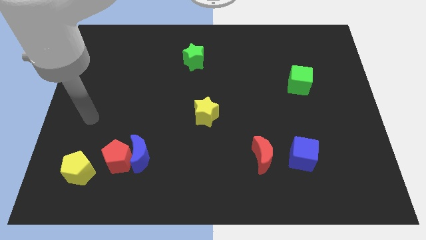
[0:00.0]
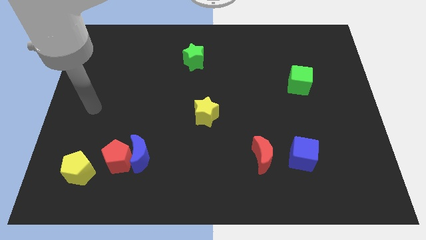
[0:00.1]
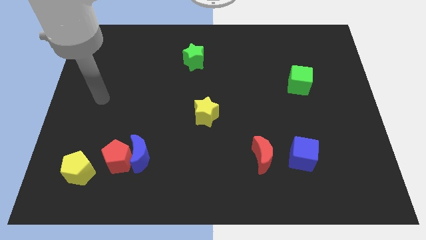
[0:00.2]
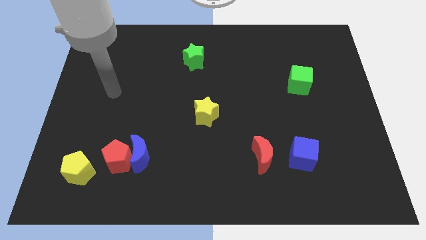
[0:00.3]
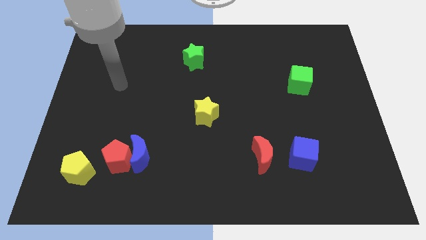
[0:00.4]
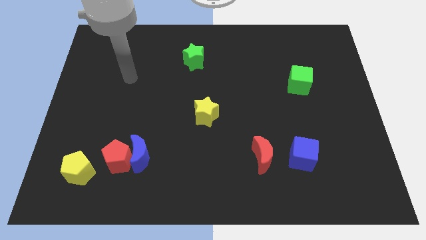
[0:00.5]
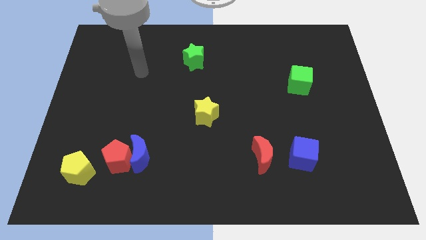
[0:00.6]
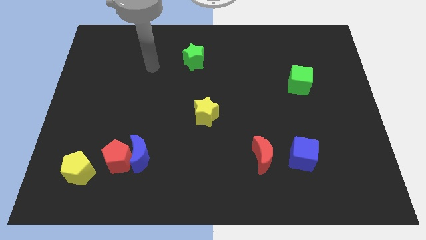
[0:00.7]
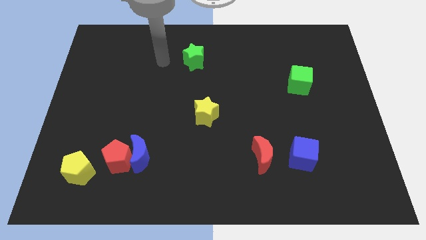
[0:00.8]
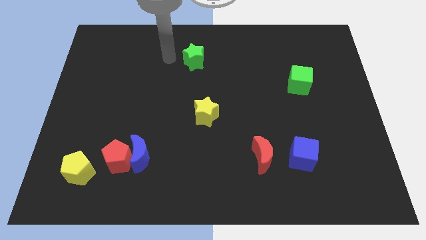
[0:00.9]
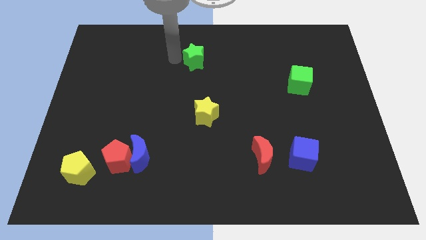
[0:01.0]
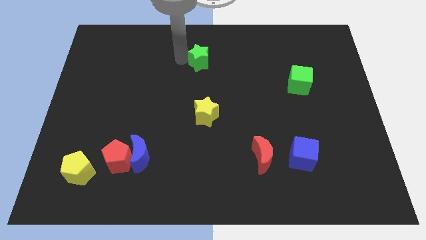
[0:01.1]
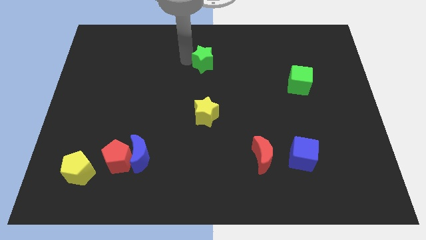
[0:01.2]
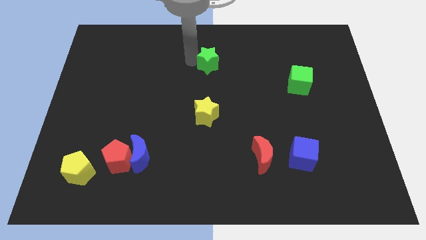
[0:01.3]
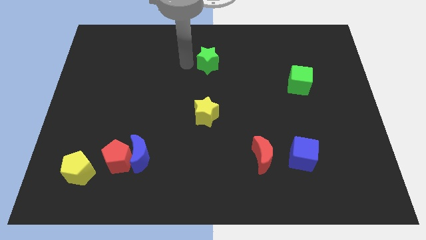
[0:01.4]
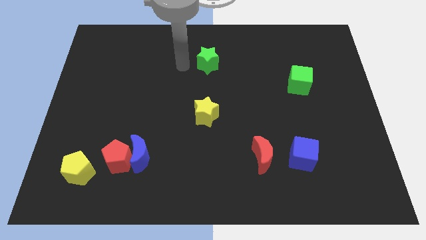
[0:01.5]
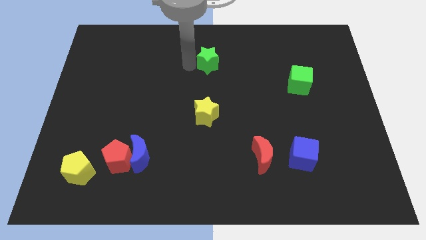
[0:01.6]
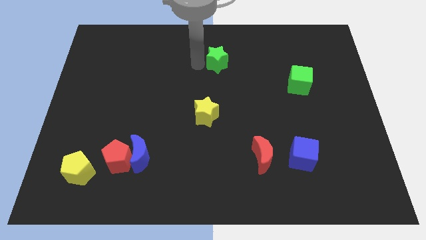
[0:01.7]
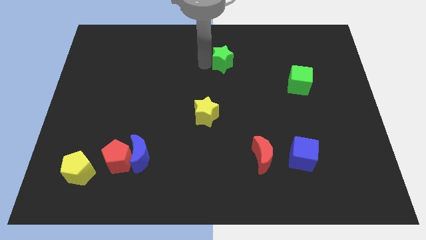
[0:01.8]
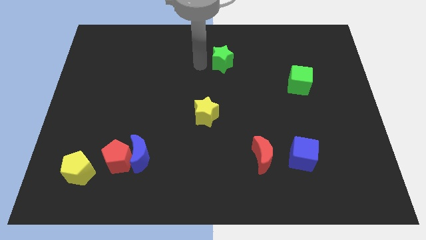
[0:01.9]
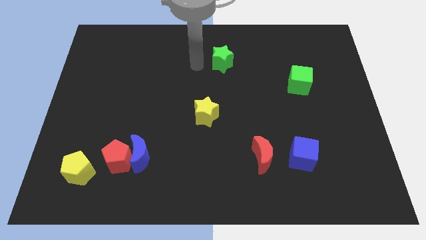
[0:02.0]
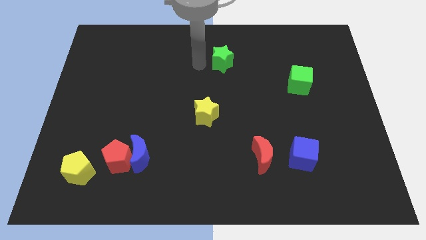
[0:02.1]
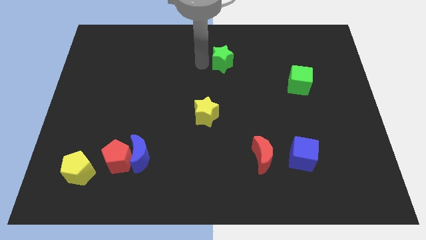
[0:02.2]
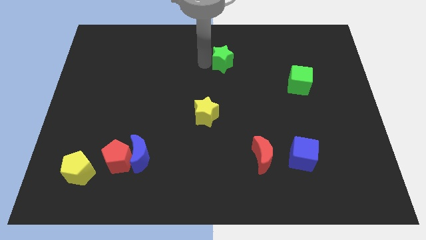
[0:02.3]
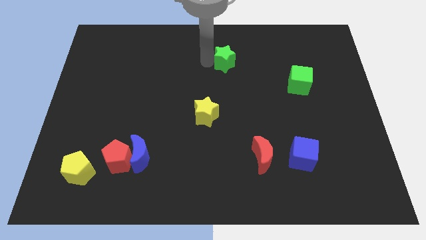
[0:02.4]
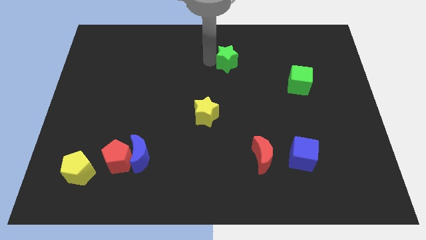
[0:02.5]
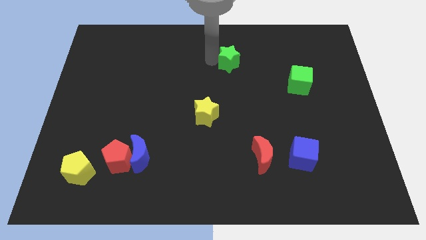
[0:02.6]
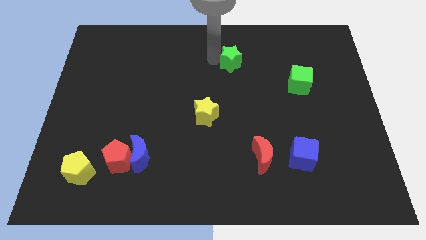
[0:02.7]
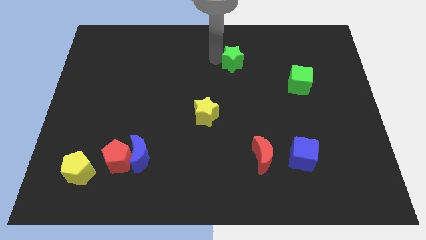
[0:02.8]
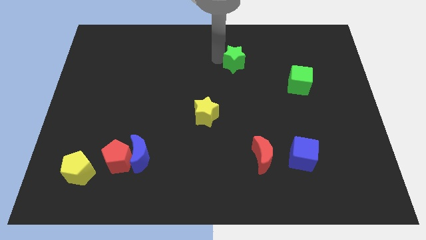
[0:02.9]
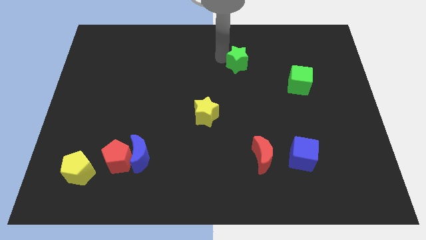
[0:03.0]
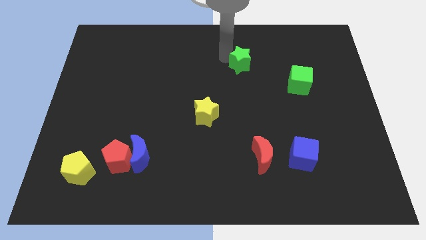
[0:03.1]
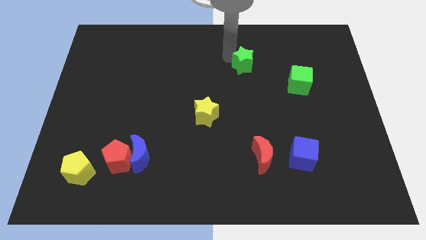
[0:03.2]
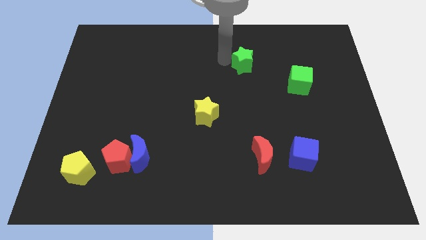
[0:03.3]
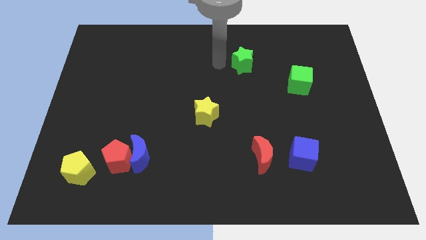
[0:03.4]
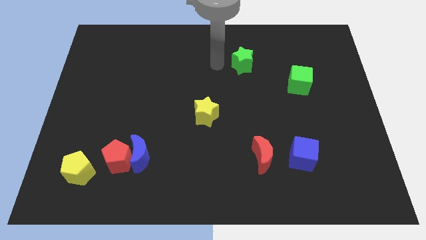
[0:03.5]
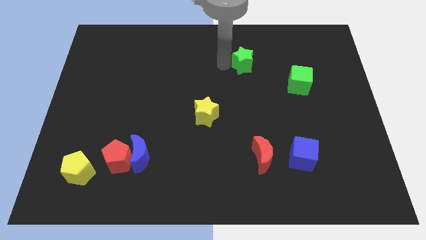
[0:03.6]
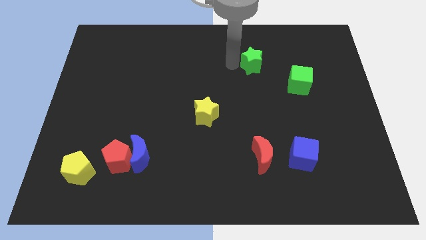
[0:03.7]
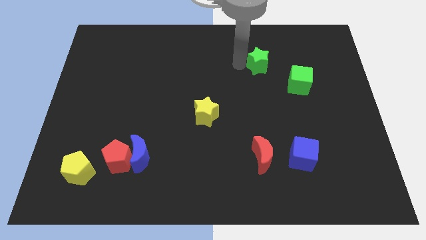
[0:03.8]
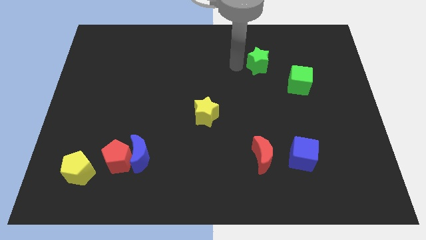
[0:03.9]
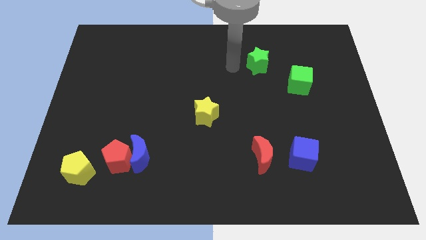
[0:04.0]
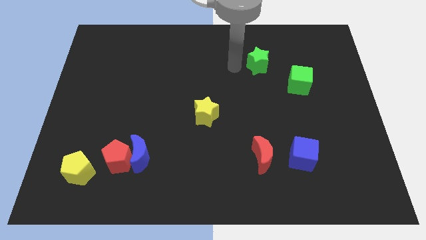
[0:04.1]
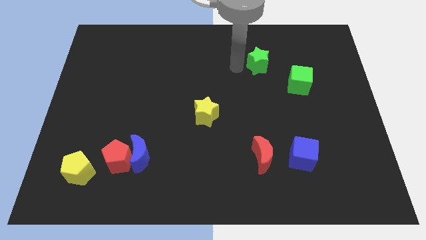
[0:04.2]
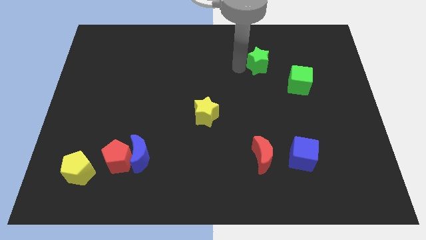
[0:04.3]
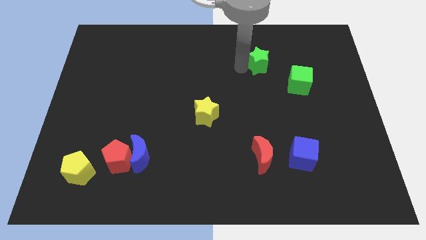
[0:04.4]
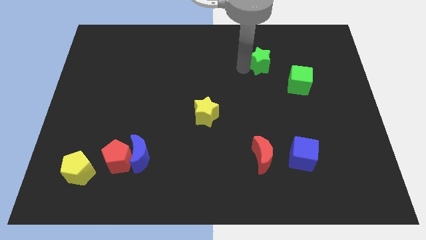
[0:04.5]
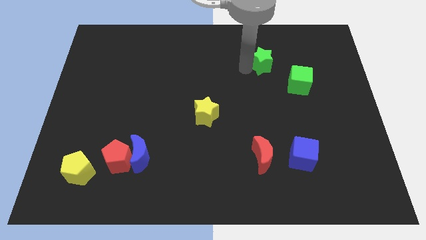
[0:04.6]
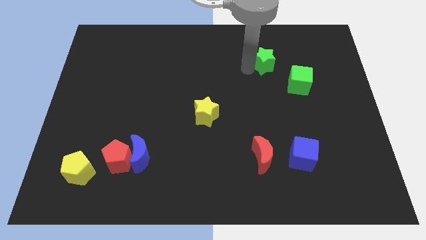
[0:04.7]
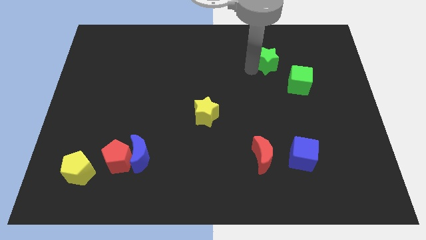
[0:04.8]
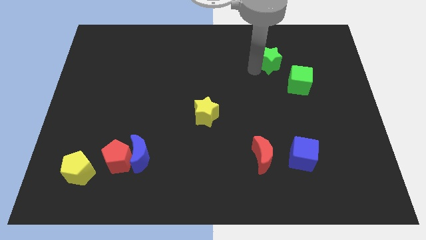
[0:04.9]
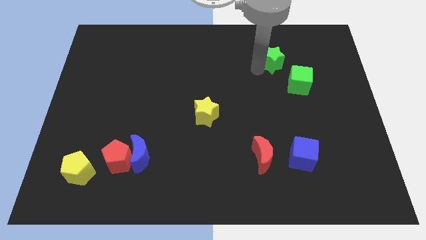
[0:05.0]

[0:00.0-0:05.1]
push the green star right

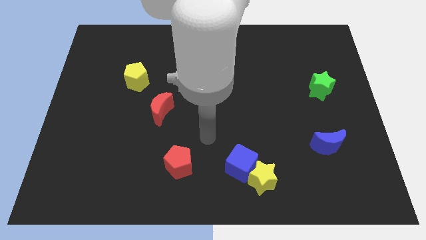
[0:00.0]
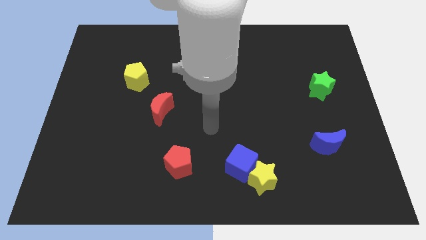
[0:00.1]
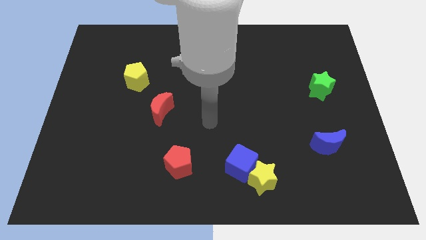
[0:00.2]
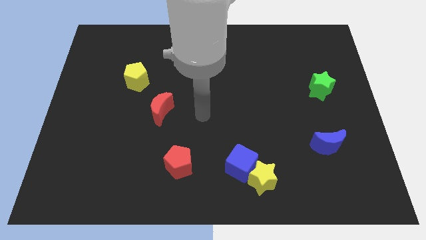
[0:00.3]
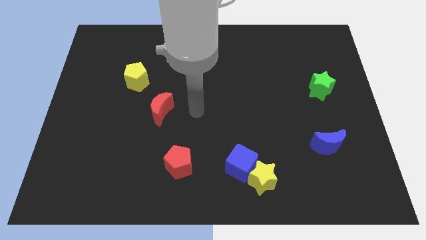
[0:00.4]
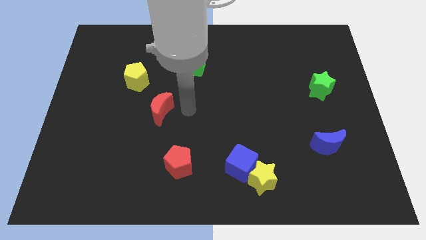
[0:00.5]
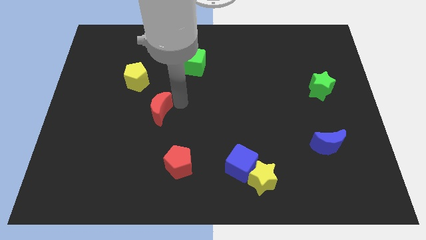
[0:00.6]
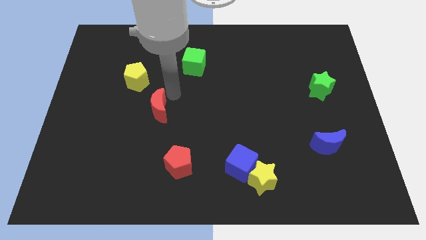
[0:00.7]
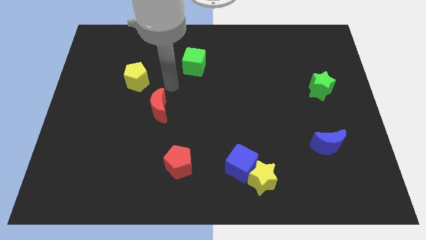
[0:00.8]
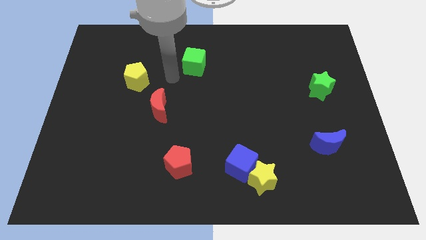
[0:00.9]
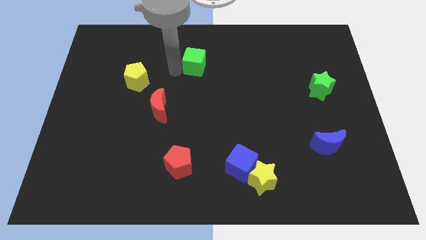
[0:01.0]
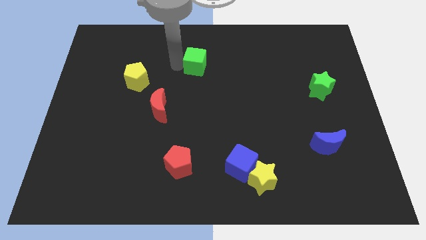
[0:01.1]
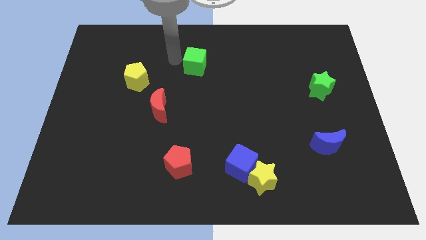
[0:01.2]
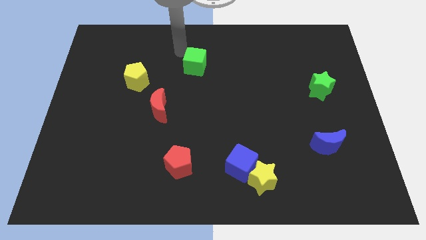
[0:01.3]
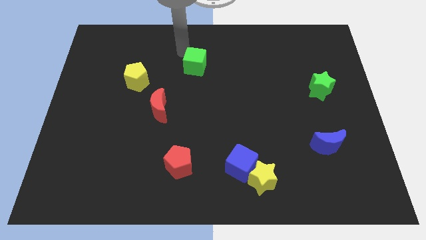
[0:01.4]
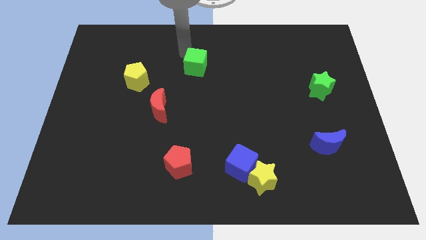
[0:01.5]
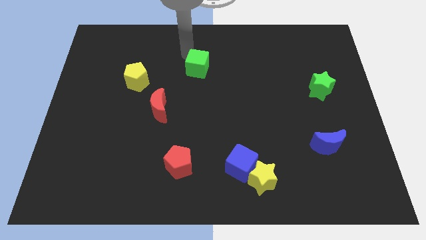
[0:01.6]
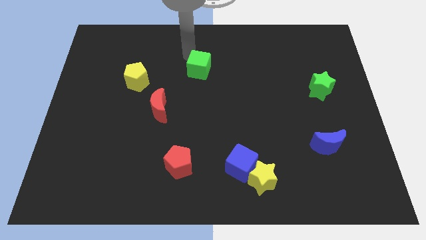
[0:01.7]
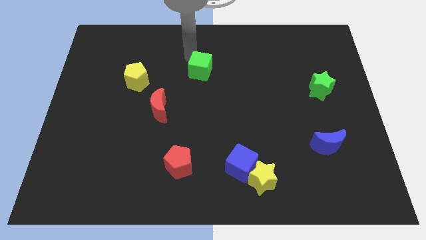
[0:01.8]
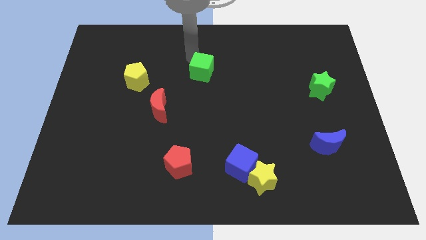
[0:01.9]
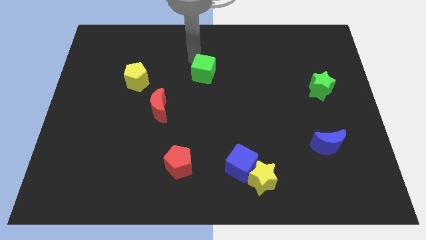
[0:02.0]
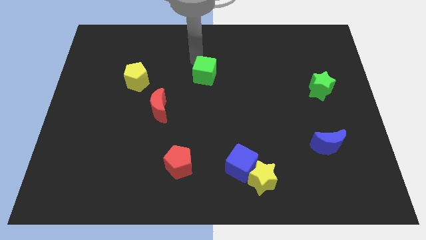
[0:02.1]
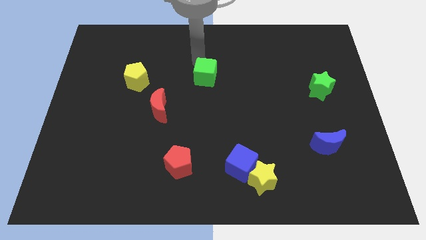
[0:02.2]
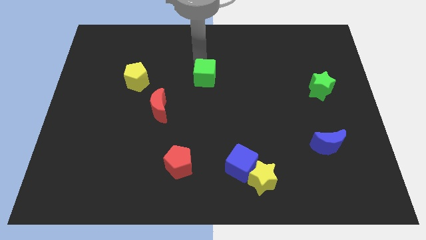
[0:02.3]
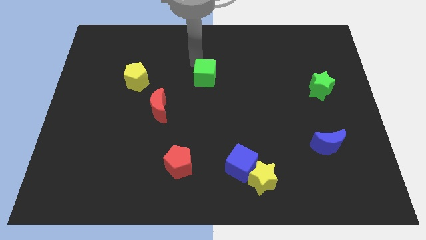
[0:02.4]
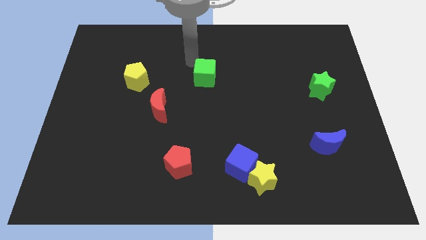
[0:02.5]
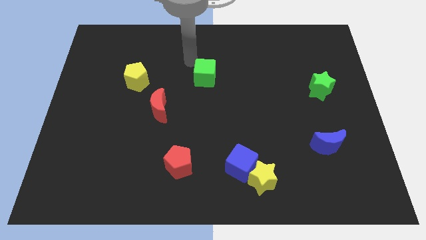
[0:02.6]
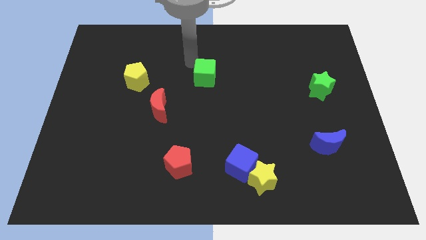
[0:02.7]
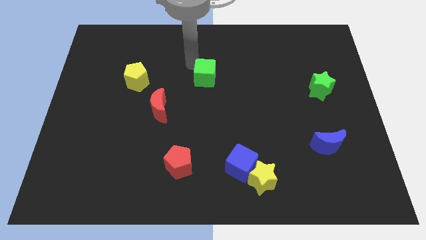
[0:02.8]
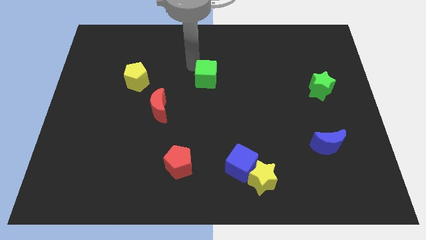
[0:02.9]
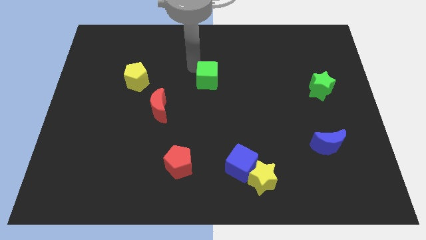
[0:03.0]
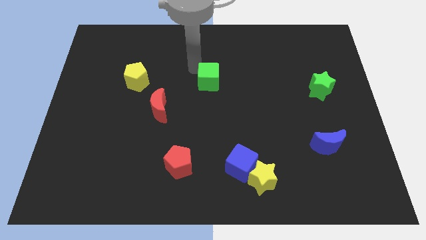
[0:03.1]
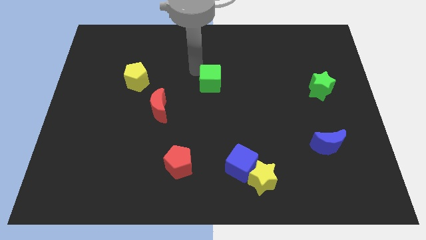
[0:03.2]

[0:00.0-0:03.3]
slightly push the green cube downwards and right
